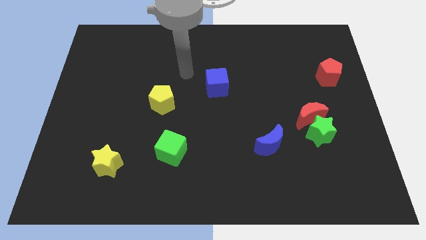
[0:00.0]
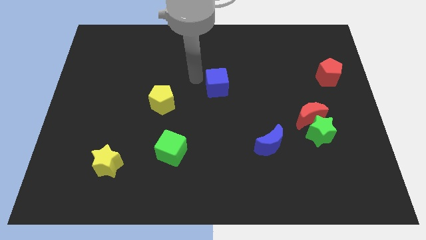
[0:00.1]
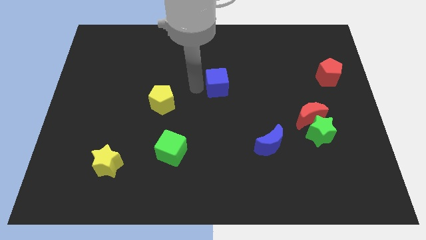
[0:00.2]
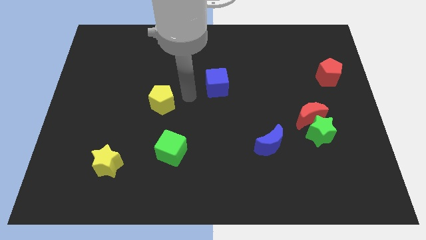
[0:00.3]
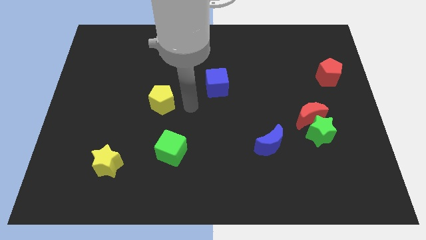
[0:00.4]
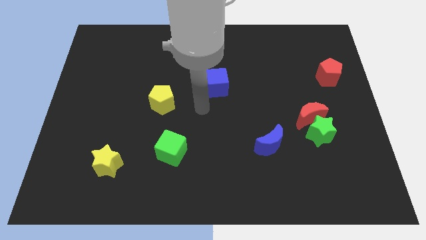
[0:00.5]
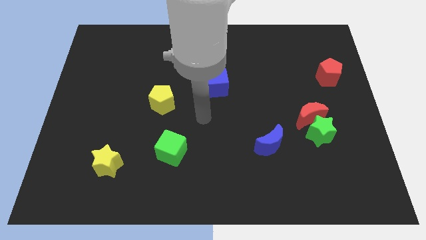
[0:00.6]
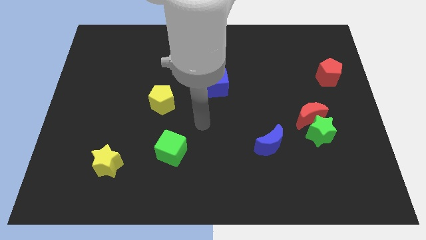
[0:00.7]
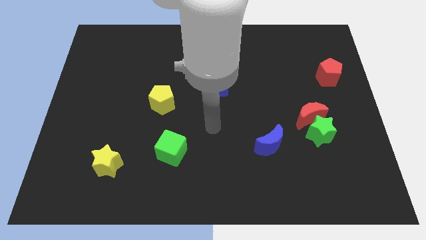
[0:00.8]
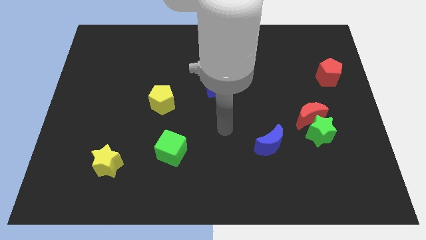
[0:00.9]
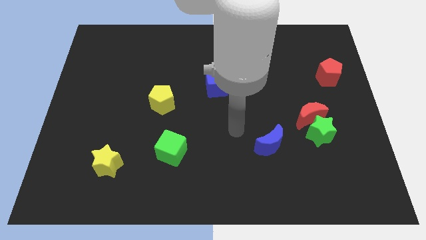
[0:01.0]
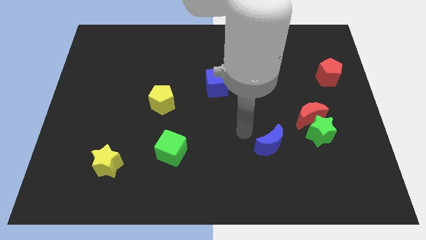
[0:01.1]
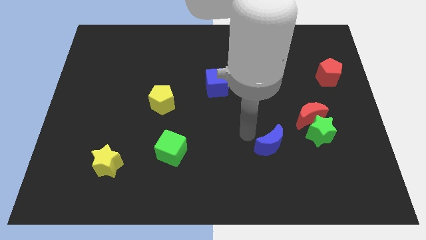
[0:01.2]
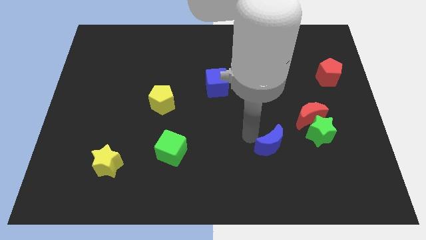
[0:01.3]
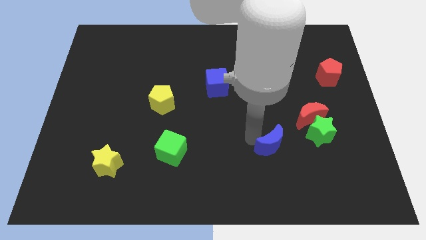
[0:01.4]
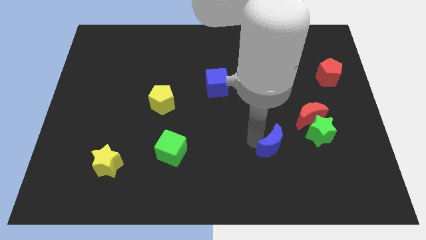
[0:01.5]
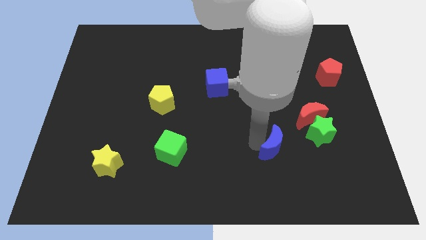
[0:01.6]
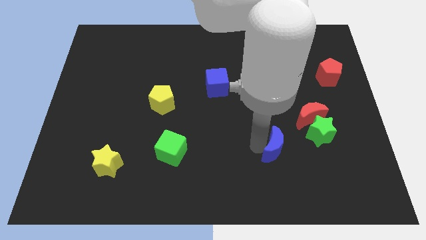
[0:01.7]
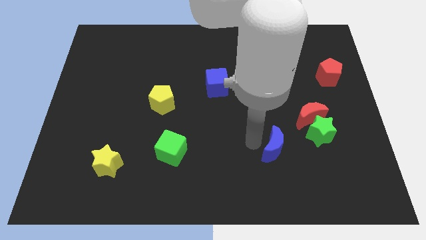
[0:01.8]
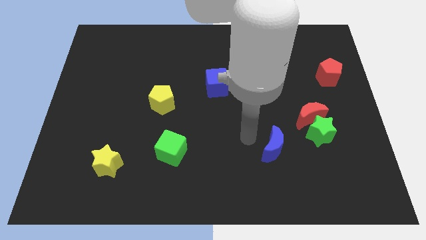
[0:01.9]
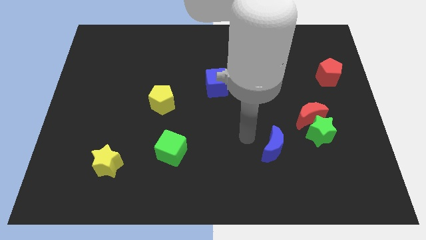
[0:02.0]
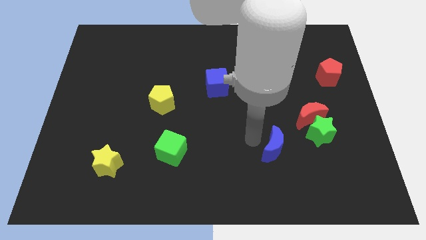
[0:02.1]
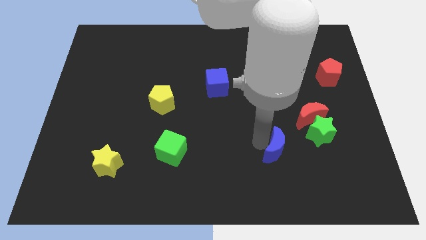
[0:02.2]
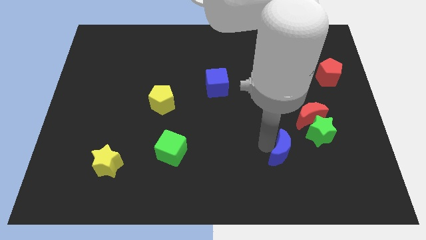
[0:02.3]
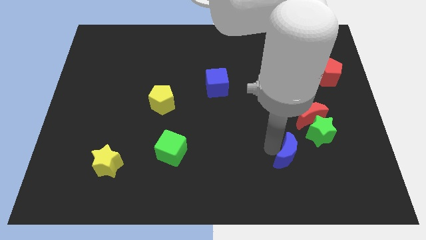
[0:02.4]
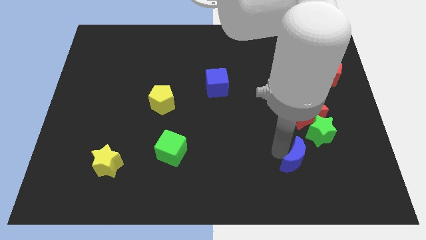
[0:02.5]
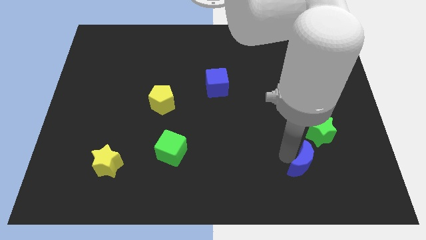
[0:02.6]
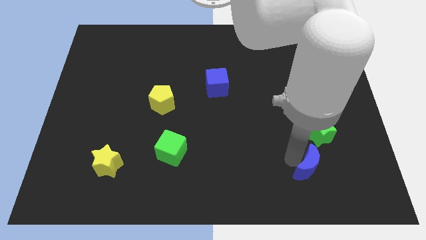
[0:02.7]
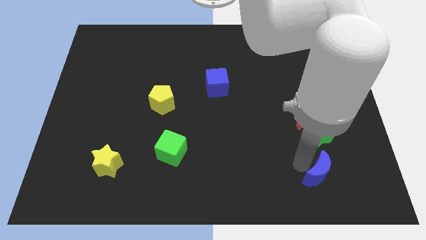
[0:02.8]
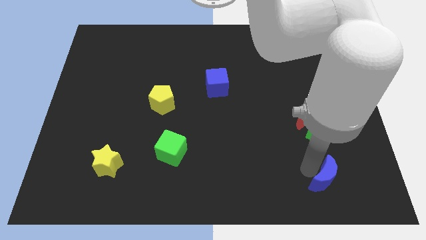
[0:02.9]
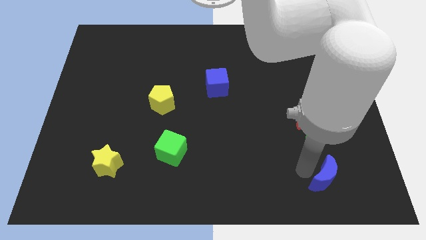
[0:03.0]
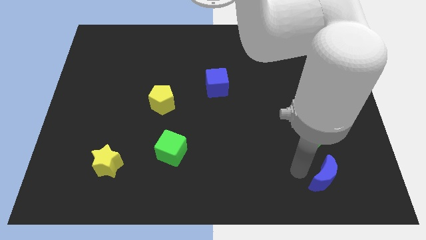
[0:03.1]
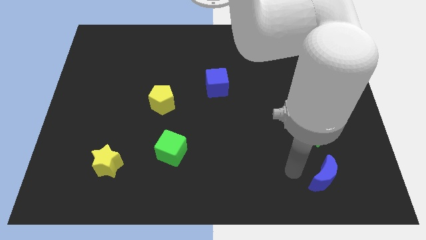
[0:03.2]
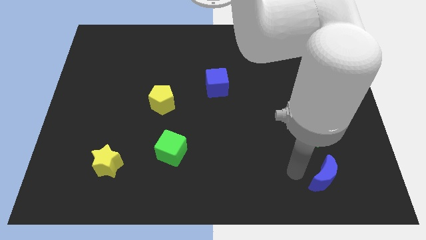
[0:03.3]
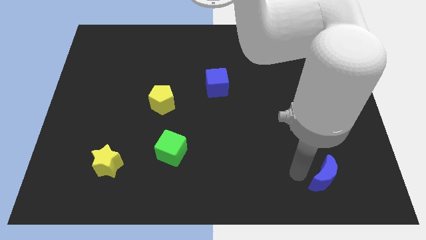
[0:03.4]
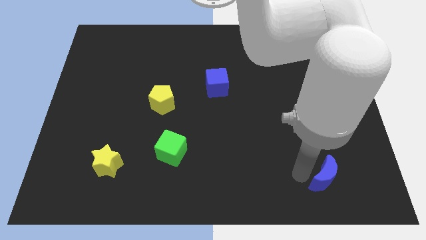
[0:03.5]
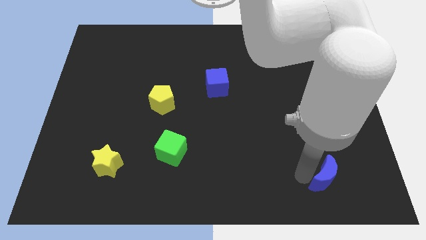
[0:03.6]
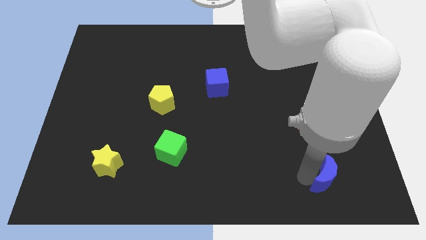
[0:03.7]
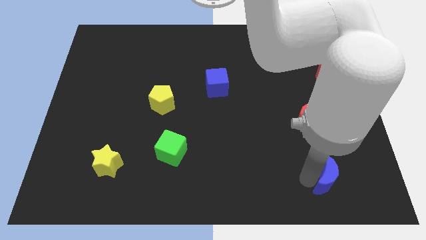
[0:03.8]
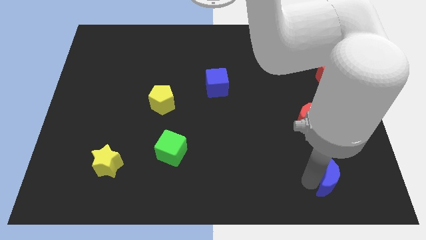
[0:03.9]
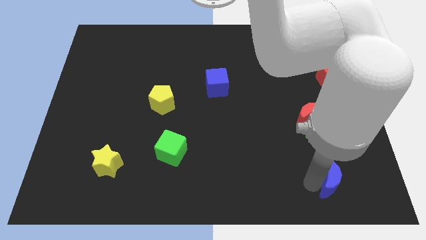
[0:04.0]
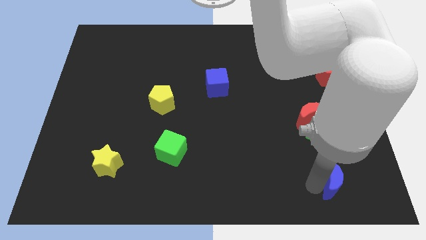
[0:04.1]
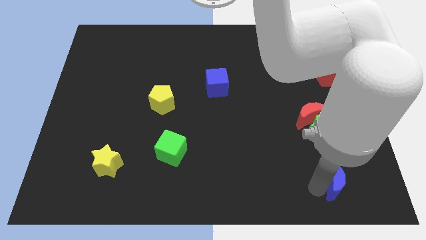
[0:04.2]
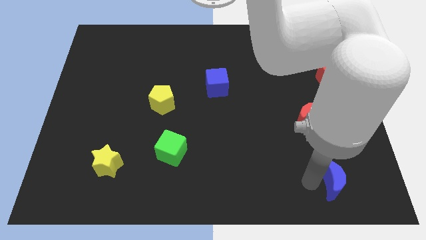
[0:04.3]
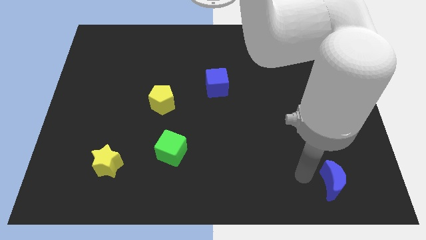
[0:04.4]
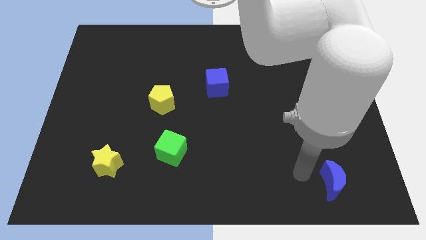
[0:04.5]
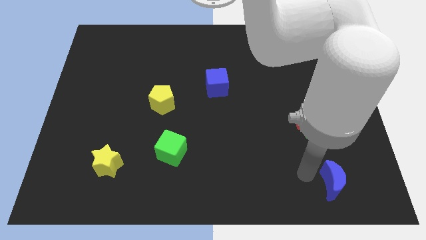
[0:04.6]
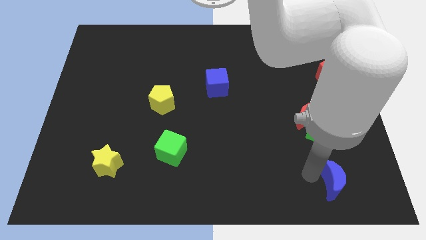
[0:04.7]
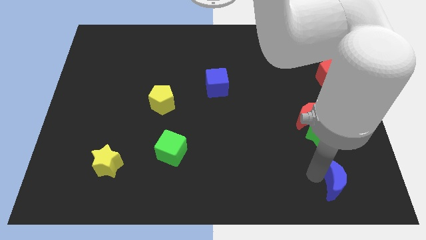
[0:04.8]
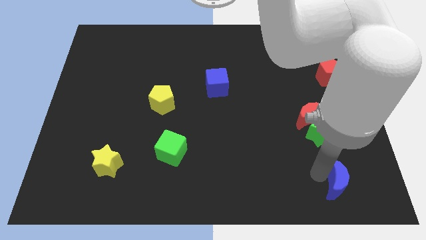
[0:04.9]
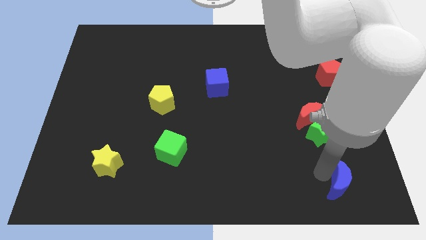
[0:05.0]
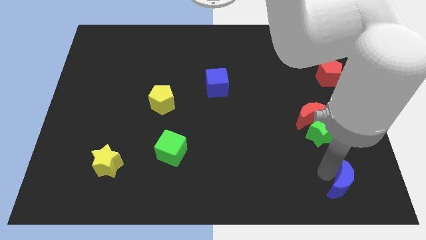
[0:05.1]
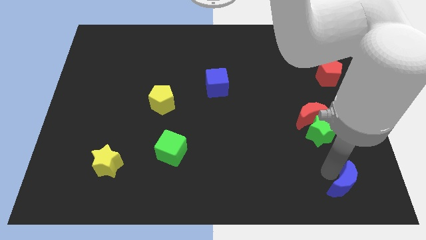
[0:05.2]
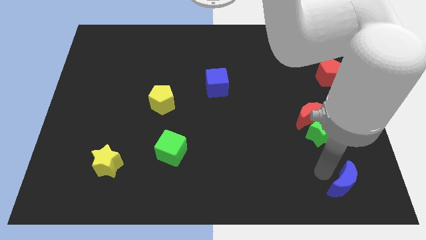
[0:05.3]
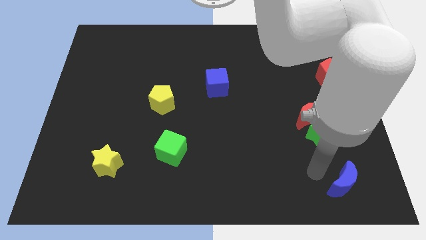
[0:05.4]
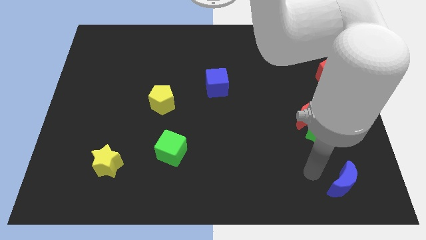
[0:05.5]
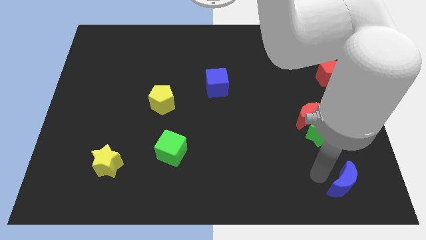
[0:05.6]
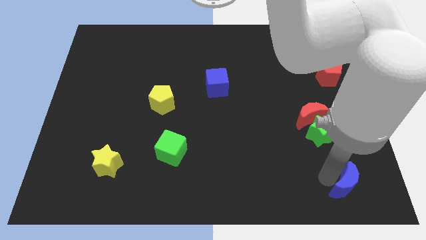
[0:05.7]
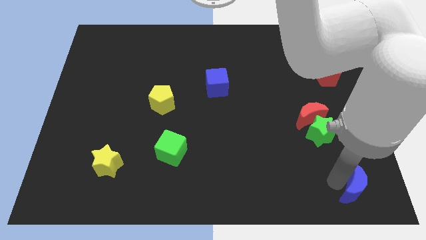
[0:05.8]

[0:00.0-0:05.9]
move the blue moon to the lower right corner
